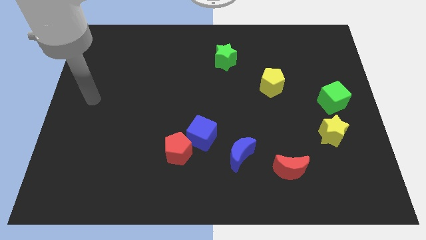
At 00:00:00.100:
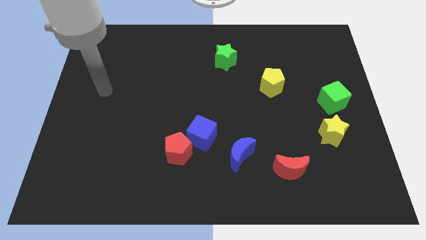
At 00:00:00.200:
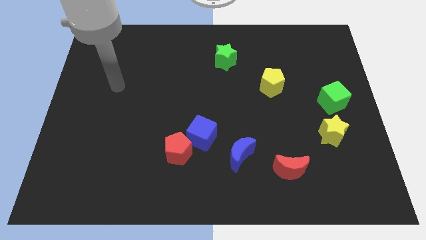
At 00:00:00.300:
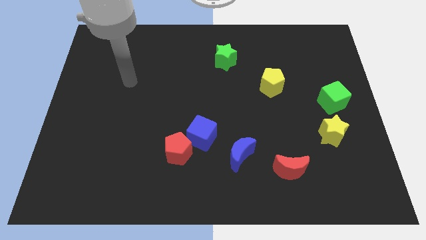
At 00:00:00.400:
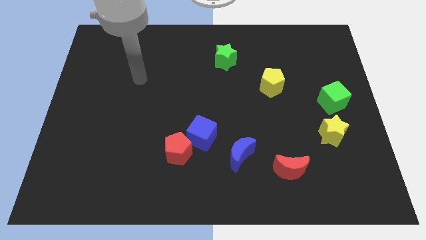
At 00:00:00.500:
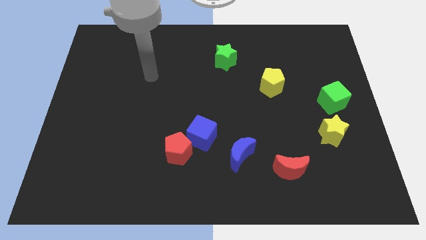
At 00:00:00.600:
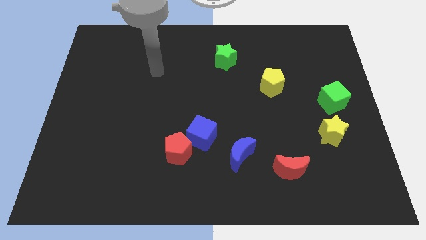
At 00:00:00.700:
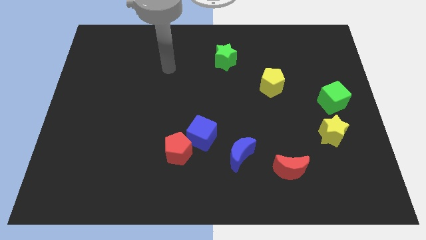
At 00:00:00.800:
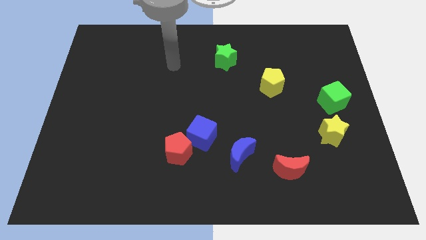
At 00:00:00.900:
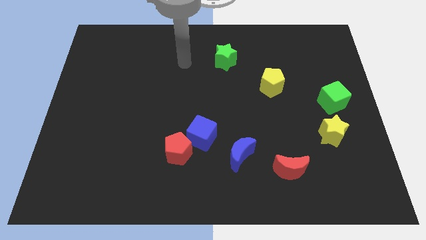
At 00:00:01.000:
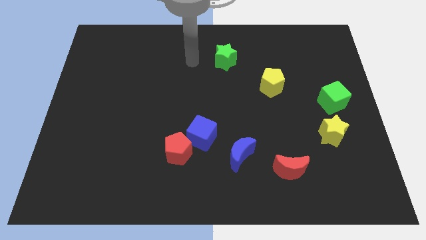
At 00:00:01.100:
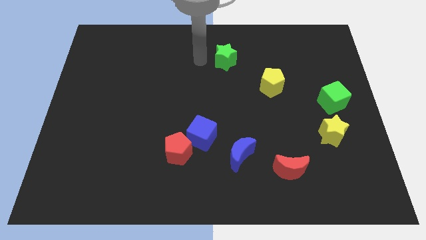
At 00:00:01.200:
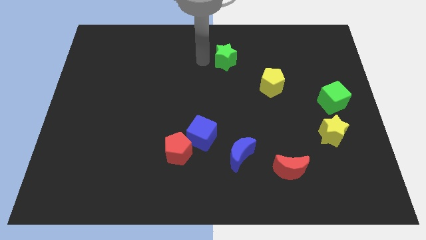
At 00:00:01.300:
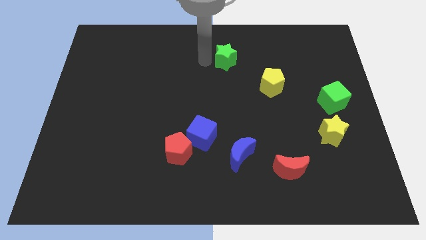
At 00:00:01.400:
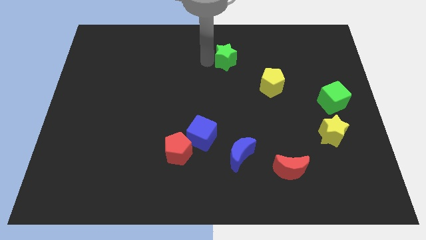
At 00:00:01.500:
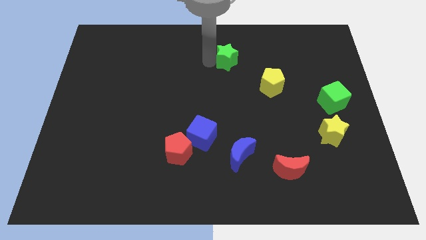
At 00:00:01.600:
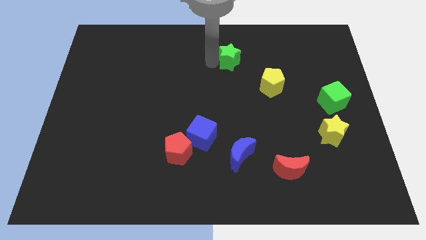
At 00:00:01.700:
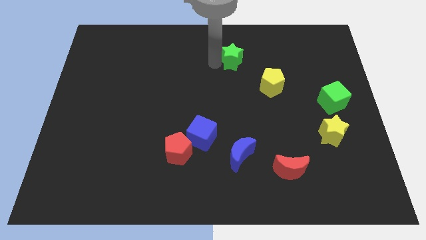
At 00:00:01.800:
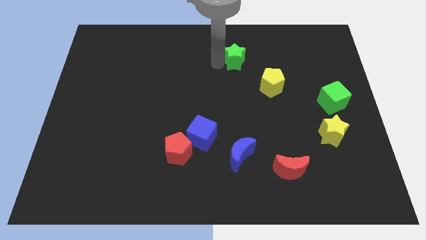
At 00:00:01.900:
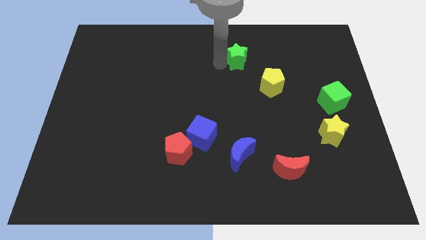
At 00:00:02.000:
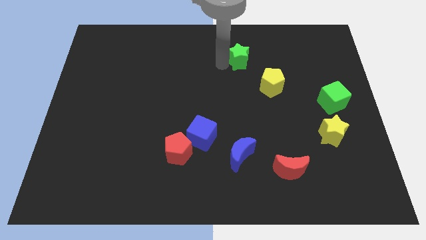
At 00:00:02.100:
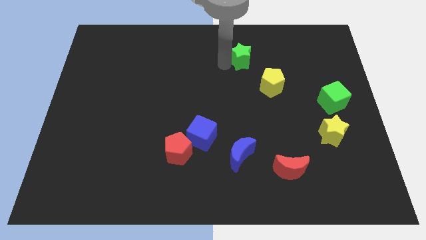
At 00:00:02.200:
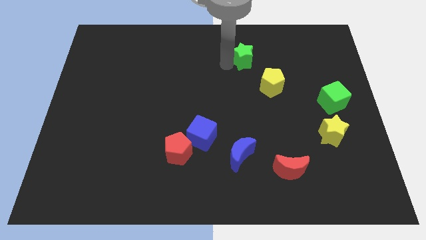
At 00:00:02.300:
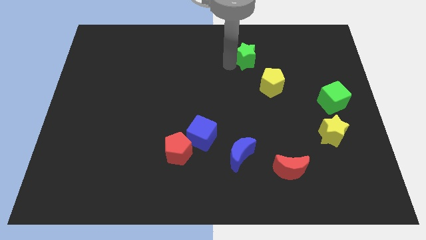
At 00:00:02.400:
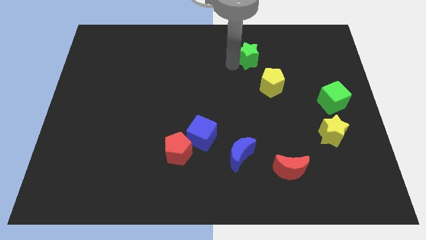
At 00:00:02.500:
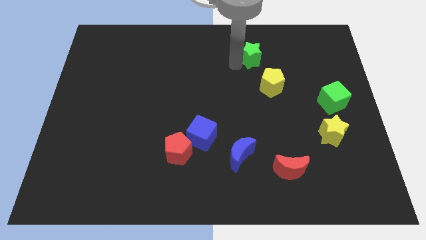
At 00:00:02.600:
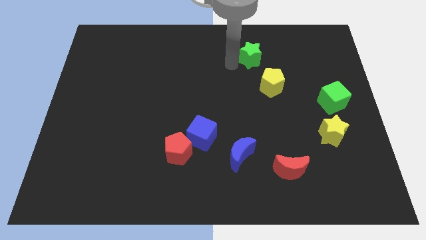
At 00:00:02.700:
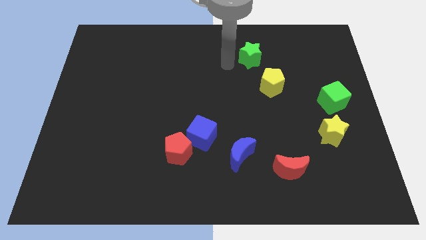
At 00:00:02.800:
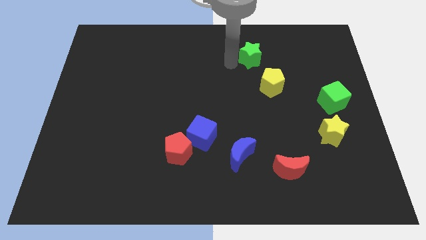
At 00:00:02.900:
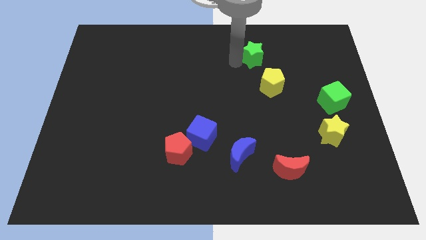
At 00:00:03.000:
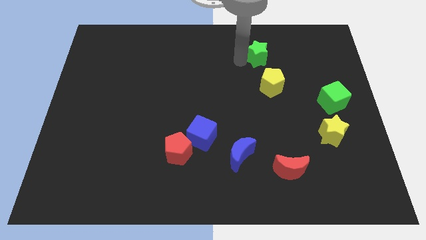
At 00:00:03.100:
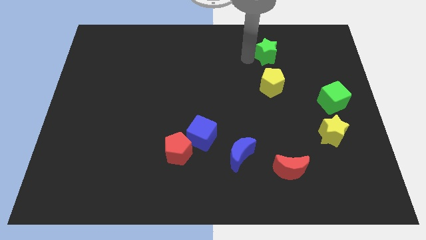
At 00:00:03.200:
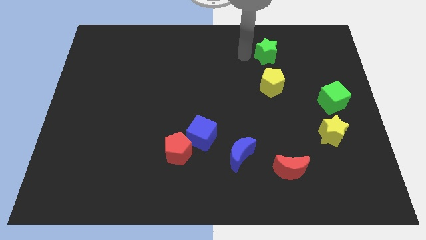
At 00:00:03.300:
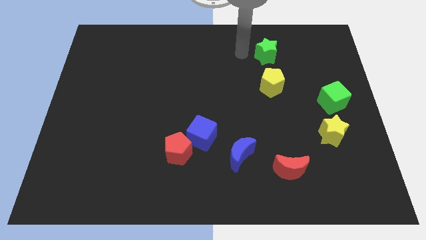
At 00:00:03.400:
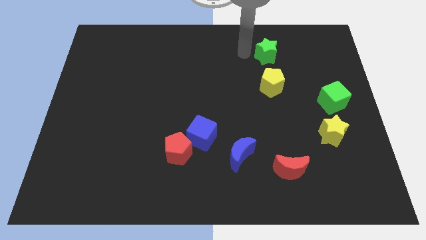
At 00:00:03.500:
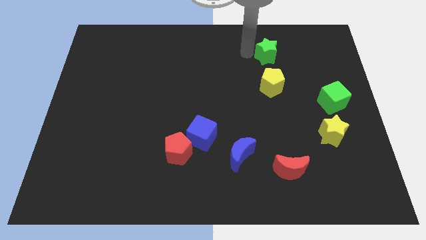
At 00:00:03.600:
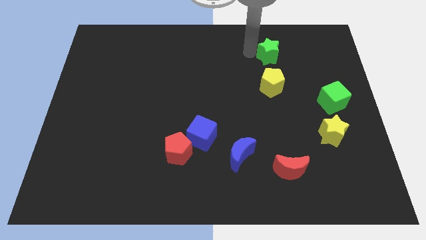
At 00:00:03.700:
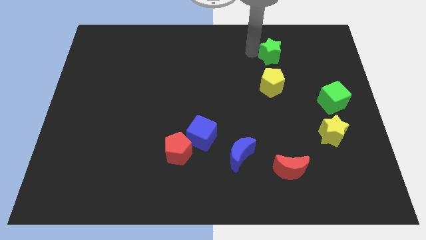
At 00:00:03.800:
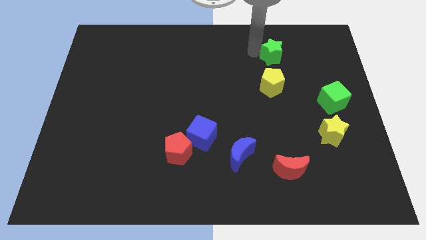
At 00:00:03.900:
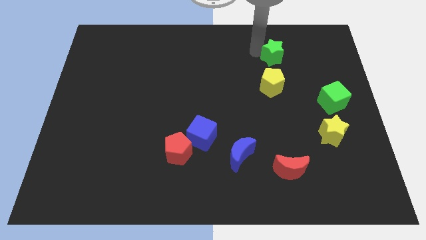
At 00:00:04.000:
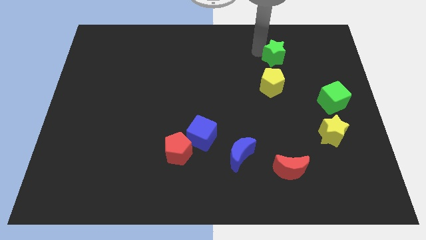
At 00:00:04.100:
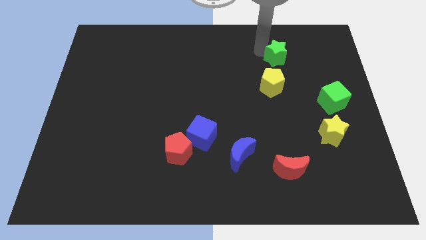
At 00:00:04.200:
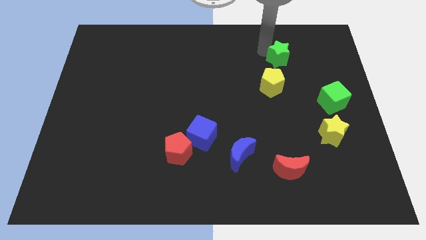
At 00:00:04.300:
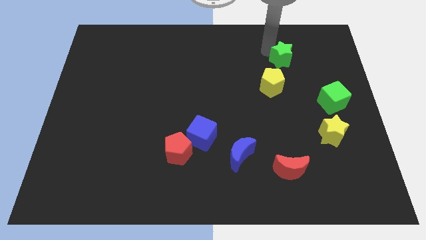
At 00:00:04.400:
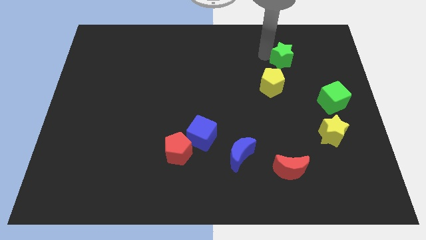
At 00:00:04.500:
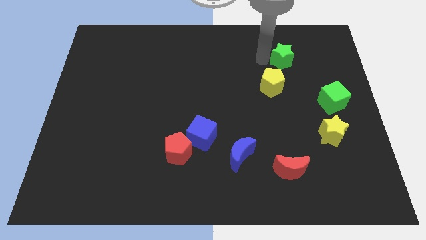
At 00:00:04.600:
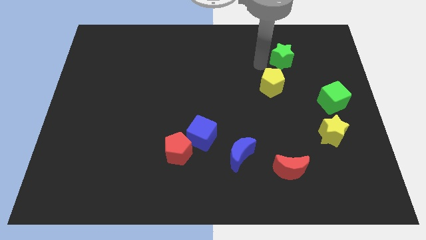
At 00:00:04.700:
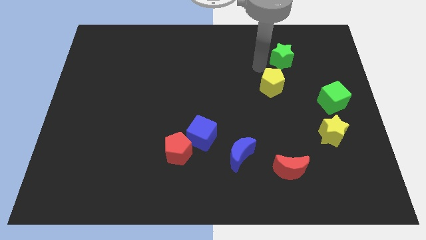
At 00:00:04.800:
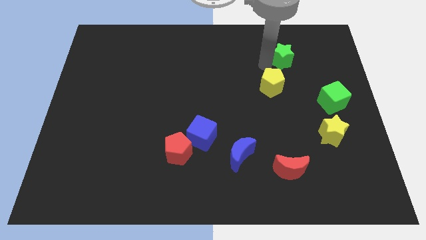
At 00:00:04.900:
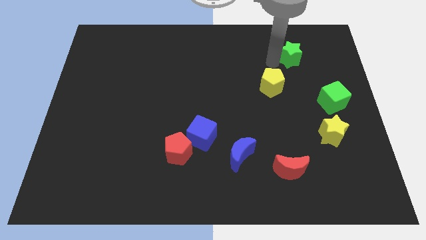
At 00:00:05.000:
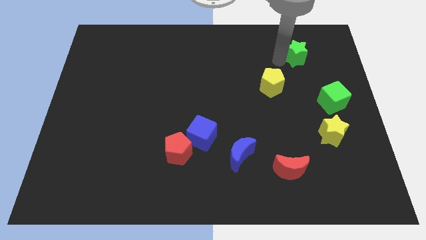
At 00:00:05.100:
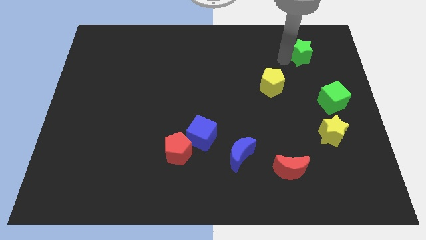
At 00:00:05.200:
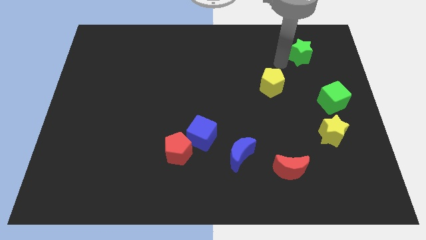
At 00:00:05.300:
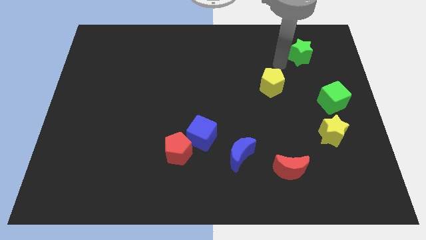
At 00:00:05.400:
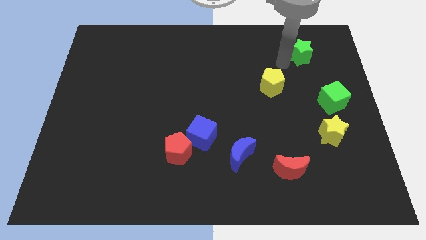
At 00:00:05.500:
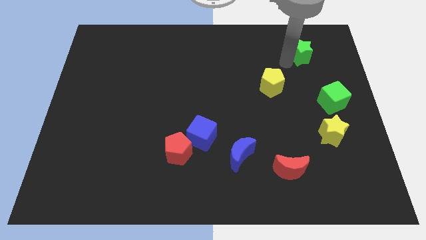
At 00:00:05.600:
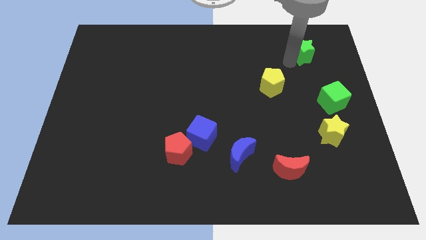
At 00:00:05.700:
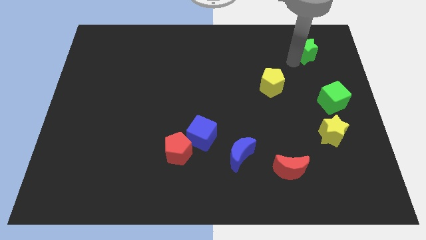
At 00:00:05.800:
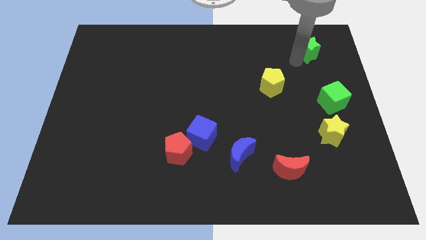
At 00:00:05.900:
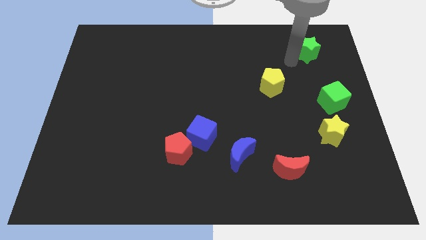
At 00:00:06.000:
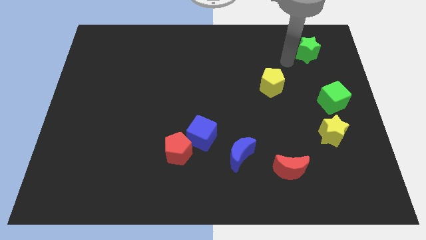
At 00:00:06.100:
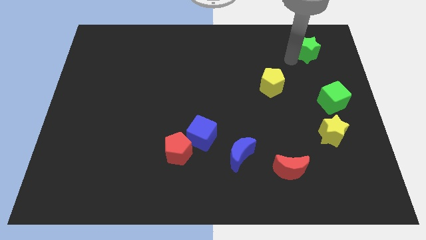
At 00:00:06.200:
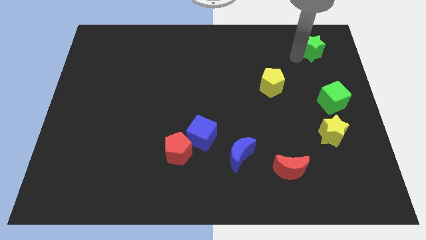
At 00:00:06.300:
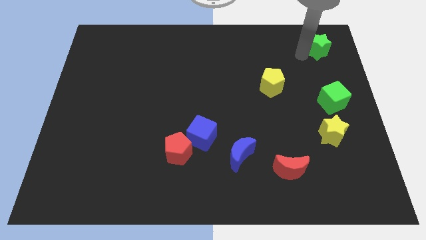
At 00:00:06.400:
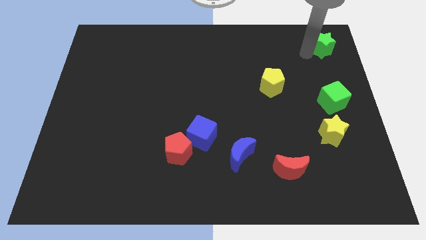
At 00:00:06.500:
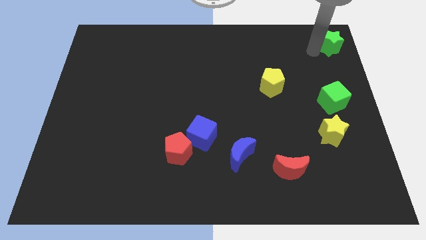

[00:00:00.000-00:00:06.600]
push the green star to the top right of the board
